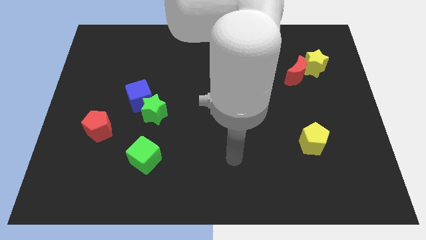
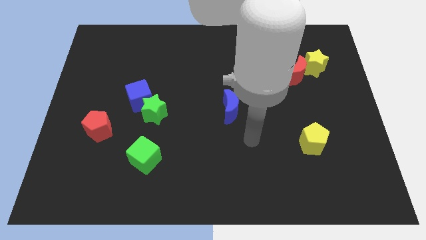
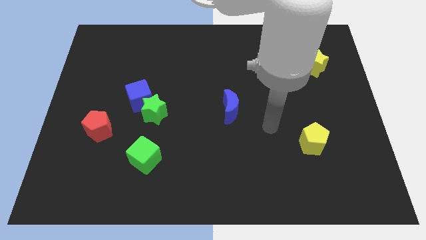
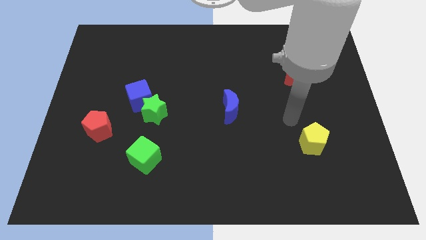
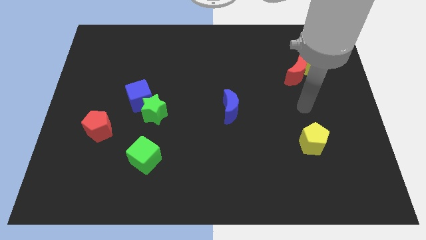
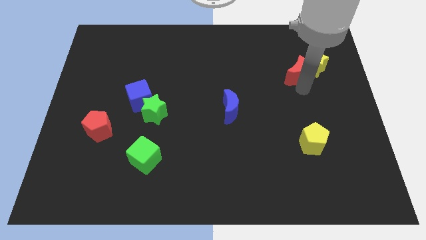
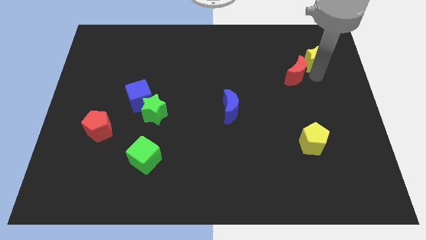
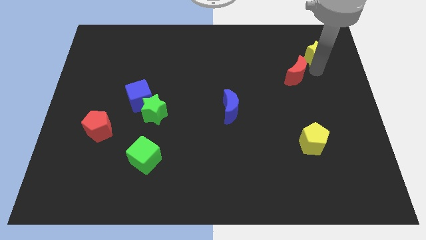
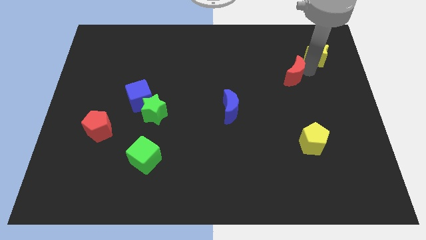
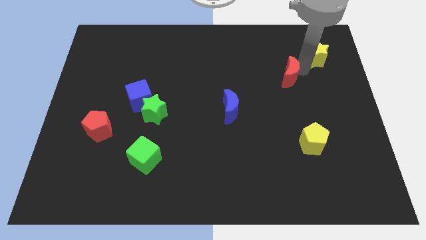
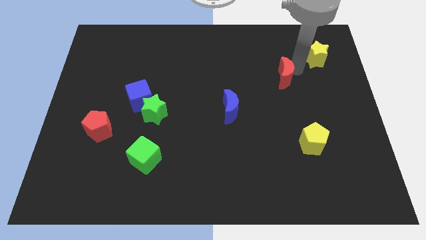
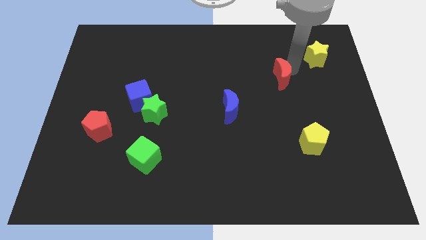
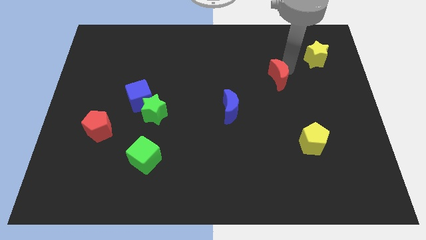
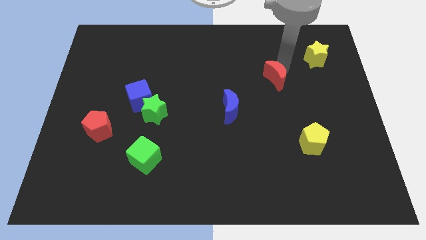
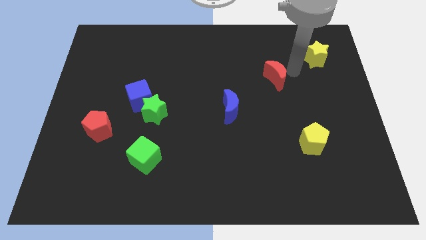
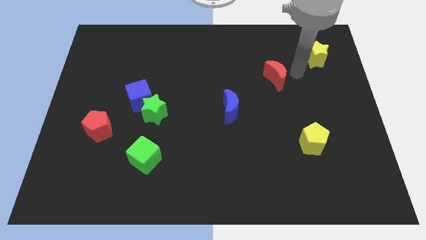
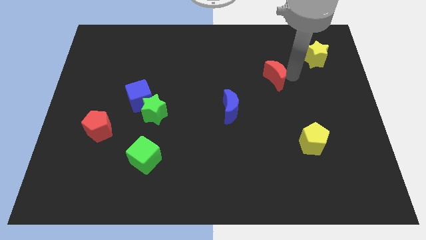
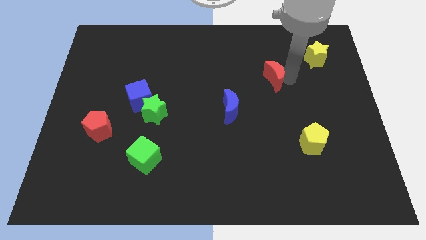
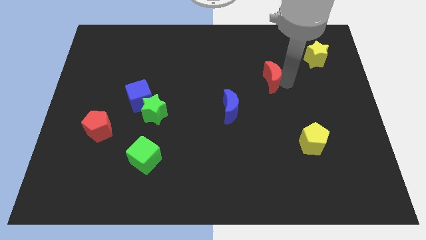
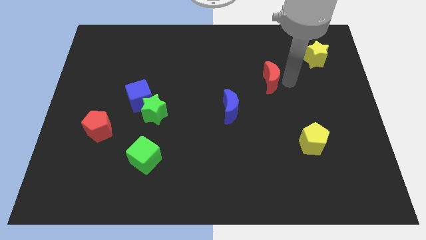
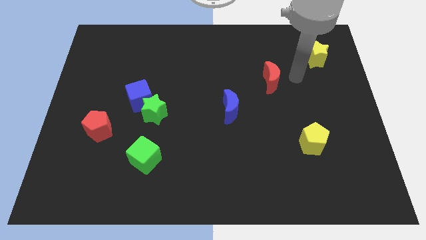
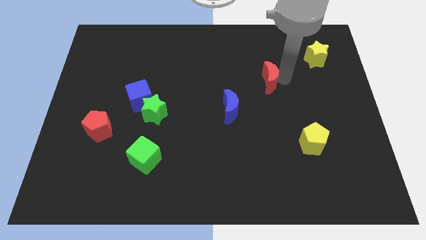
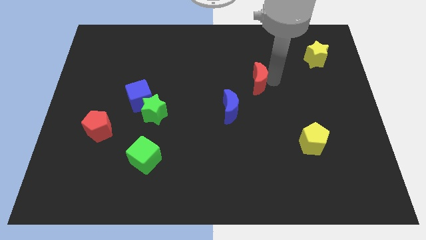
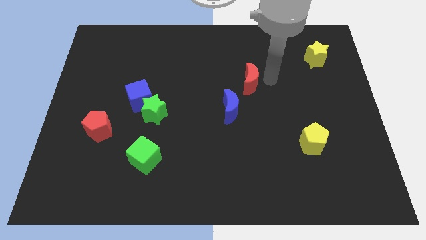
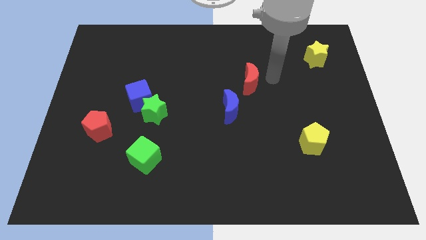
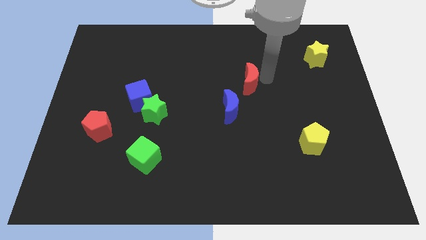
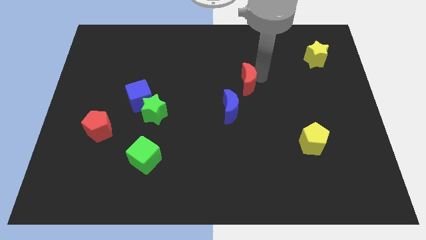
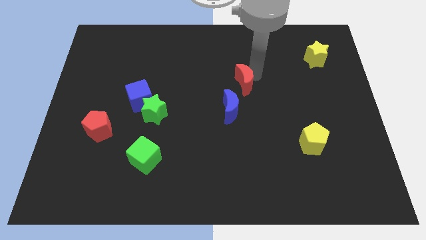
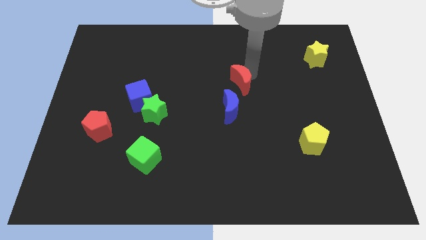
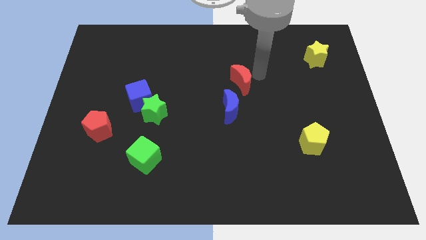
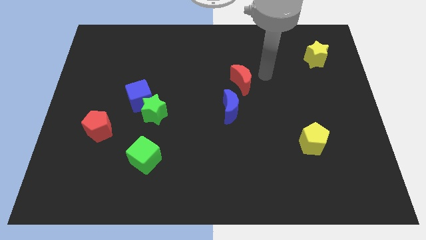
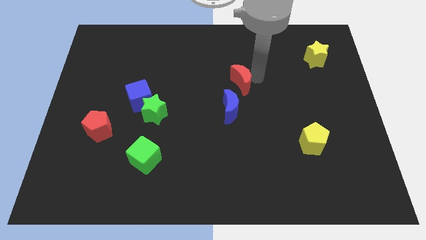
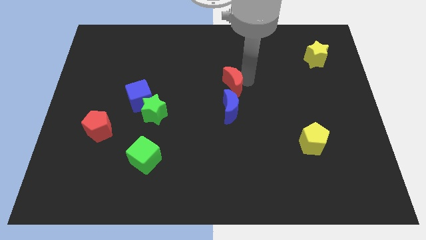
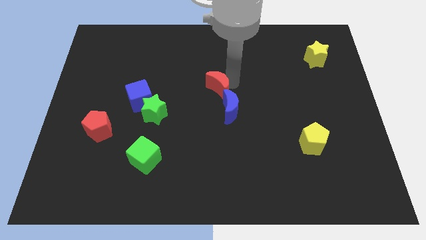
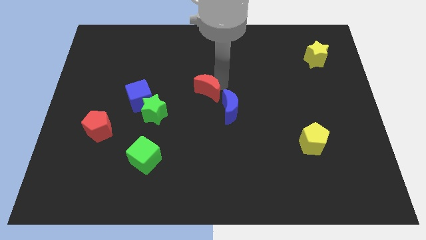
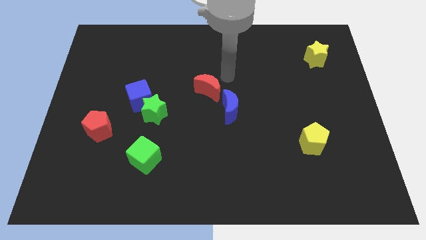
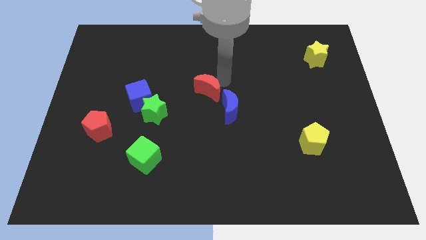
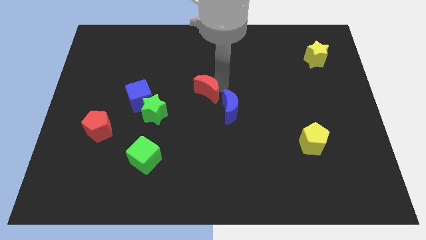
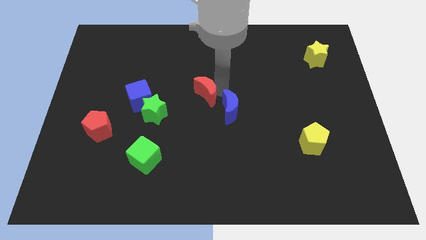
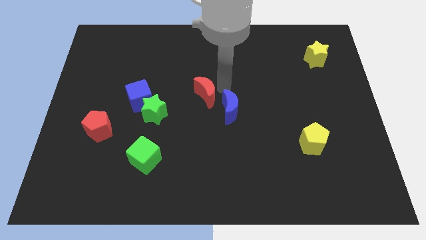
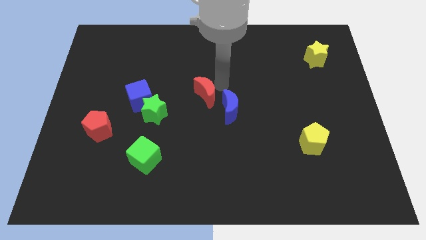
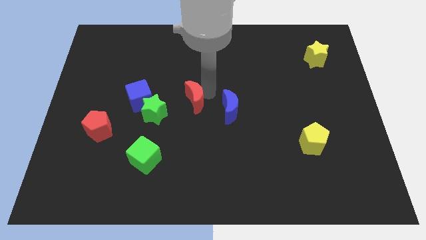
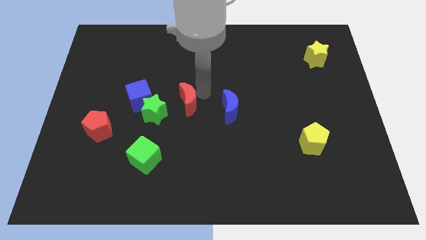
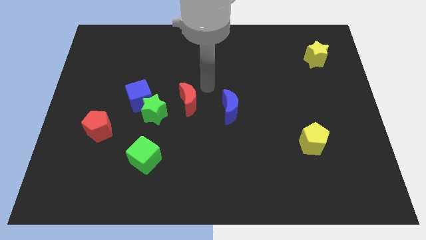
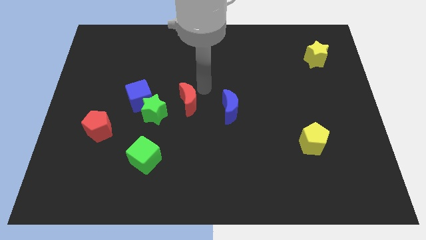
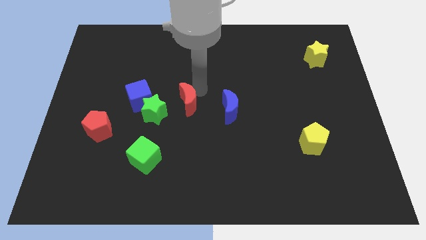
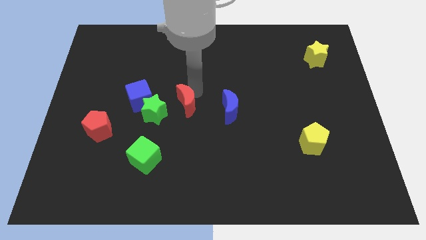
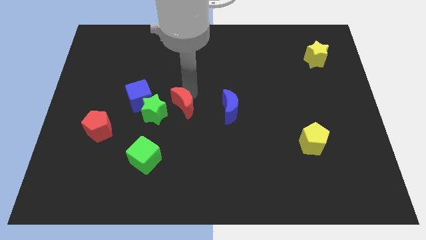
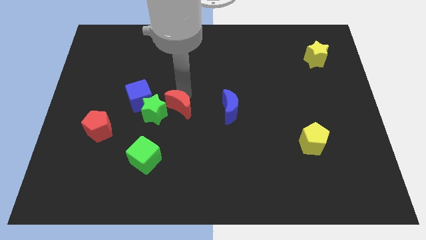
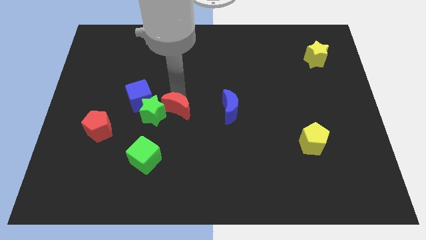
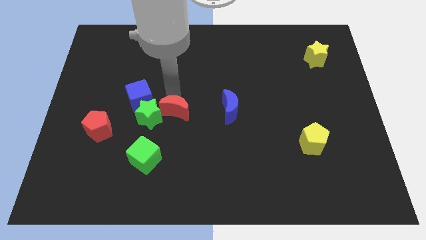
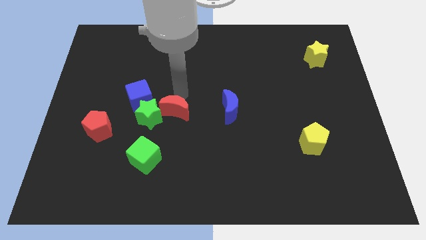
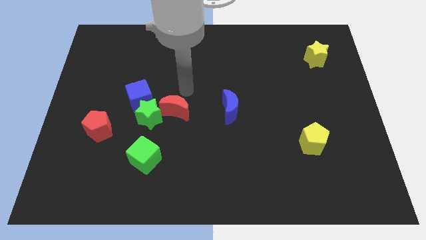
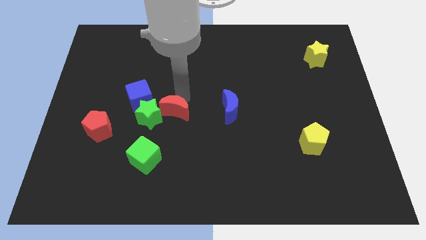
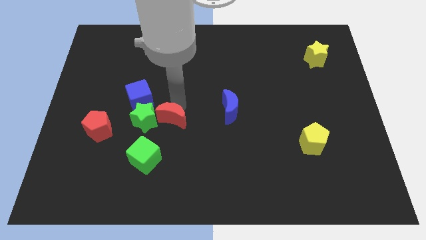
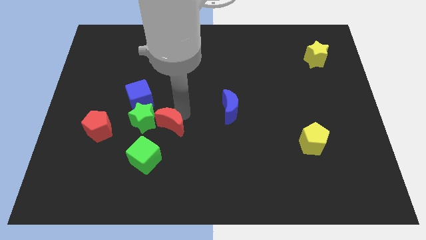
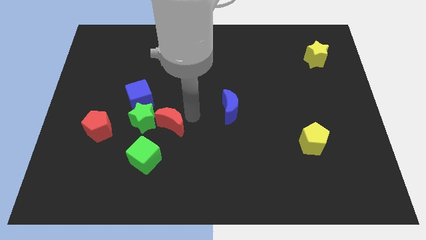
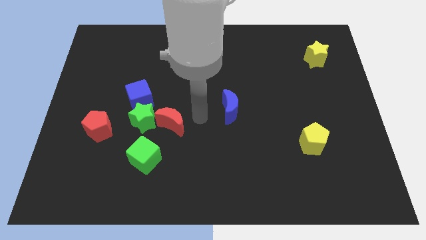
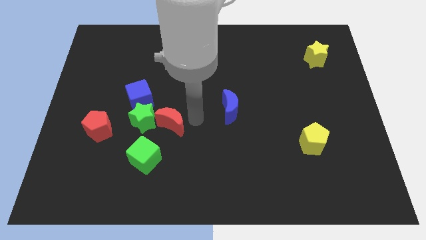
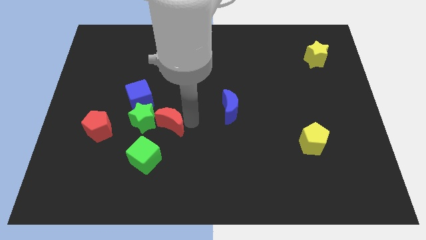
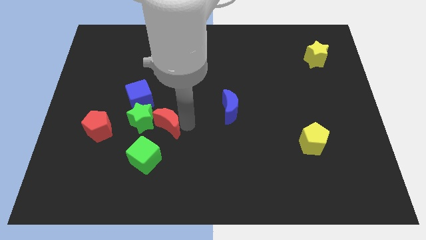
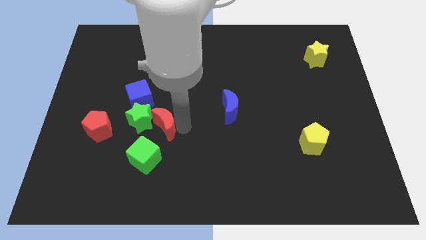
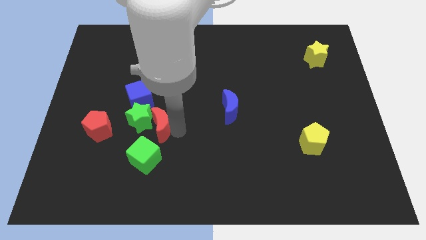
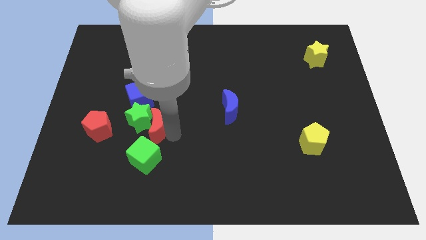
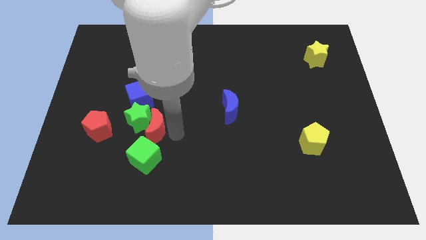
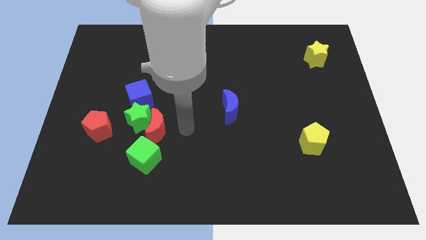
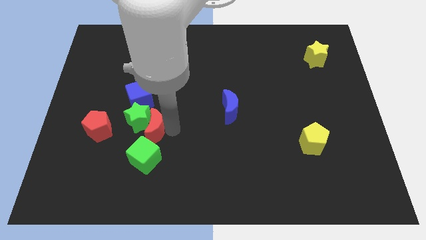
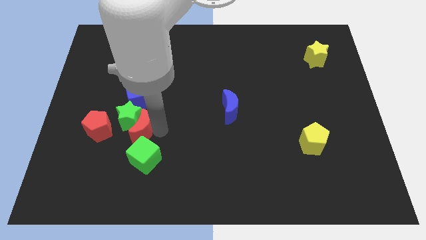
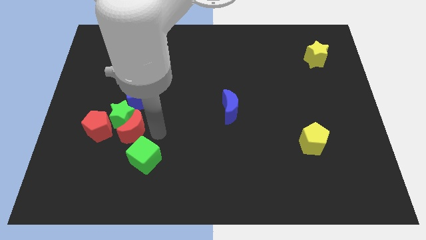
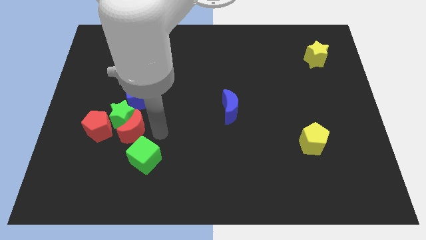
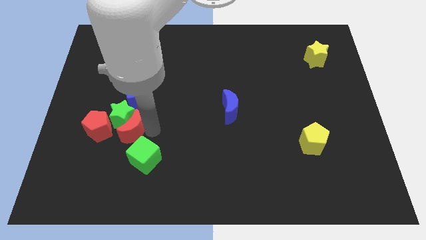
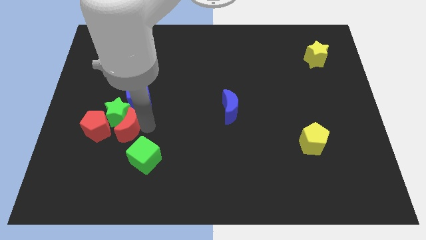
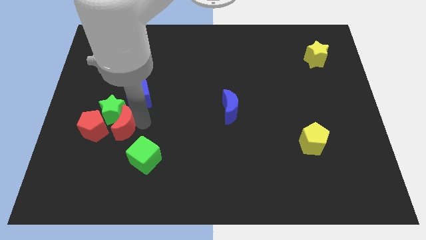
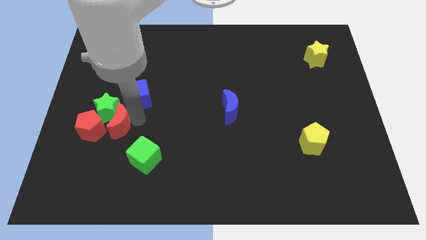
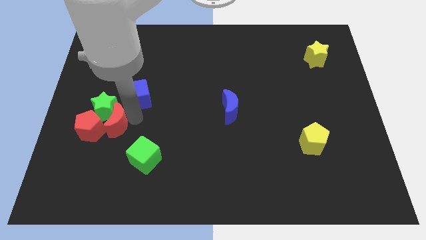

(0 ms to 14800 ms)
move the red moon to the red pentagon
